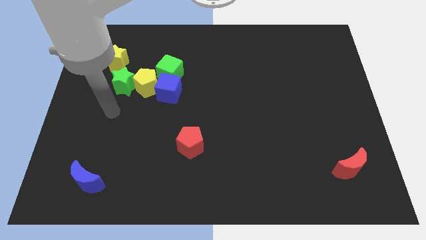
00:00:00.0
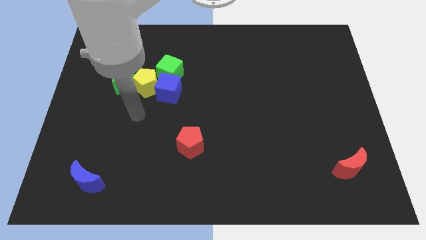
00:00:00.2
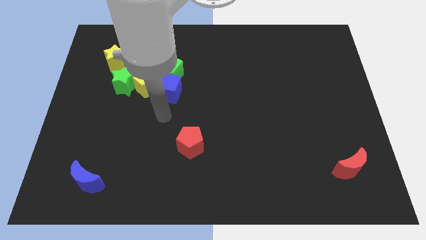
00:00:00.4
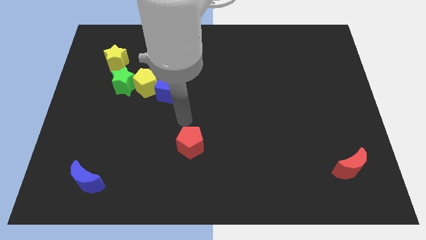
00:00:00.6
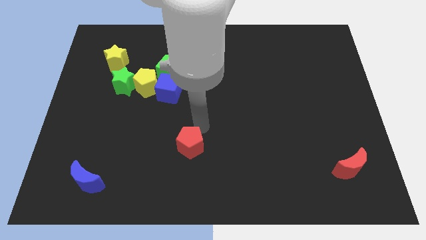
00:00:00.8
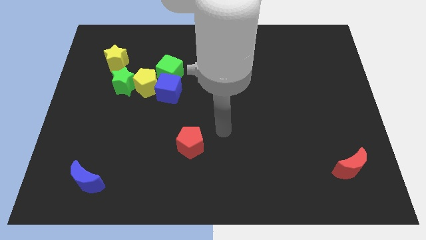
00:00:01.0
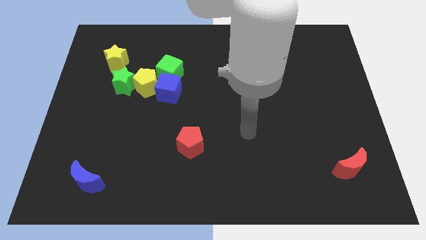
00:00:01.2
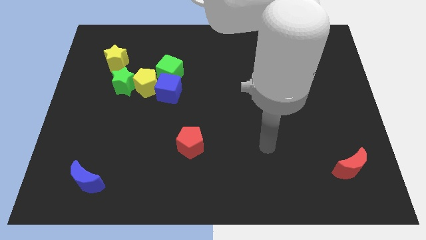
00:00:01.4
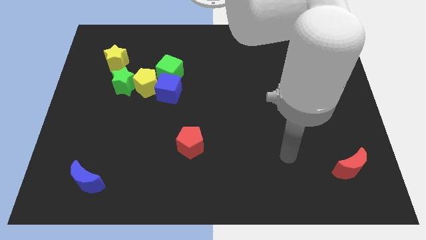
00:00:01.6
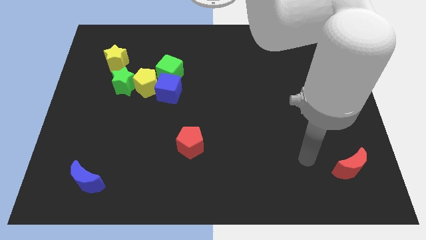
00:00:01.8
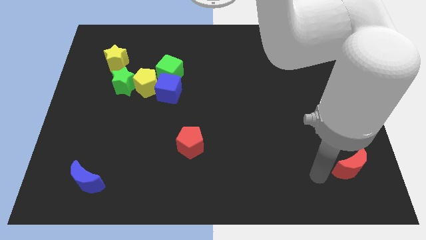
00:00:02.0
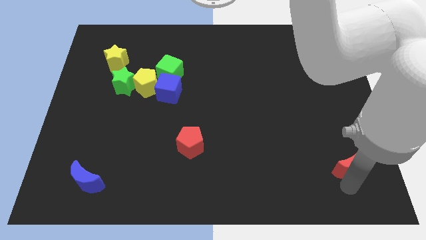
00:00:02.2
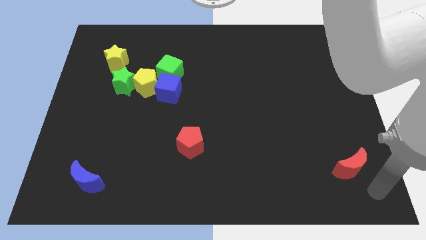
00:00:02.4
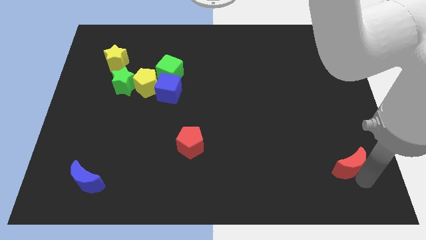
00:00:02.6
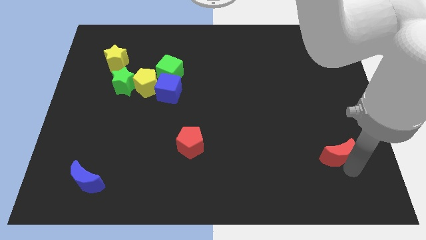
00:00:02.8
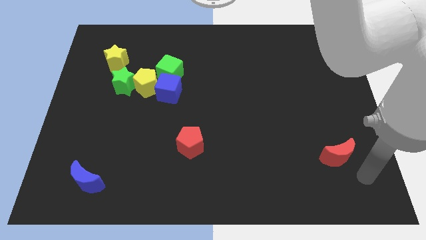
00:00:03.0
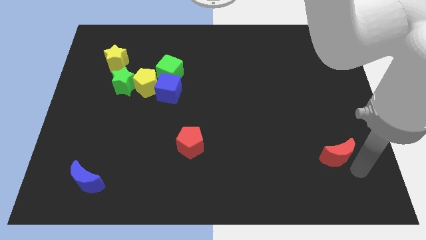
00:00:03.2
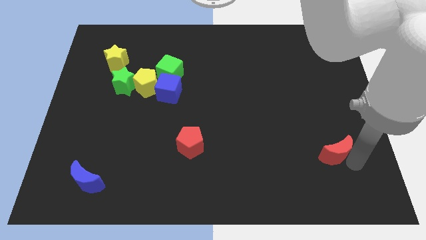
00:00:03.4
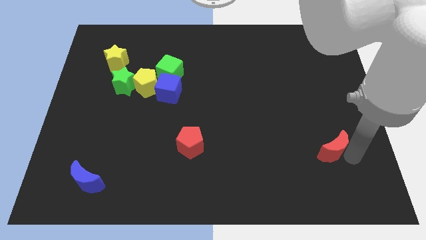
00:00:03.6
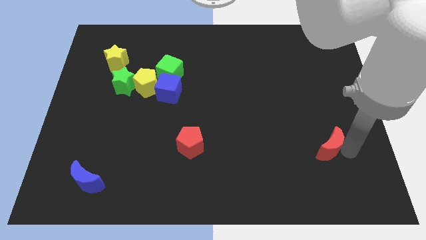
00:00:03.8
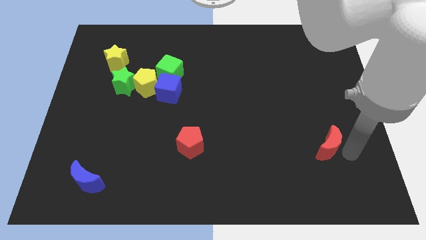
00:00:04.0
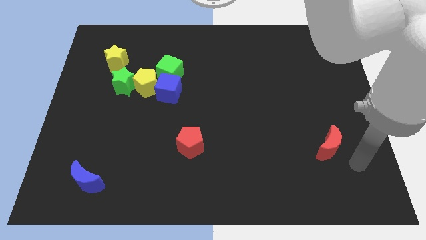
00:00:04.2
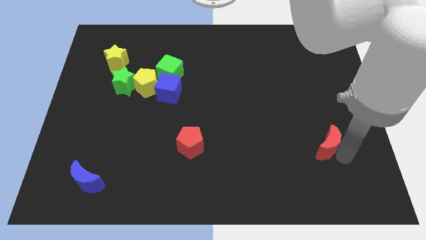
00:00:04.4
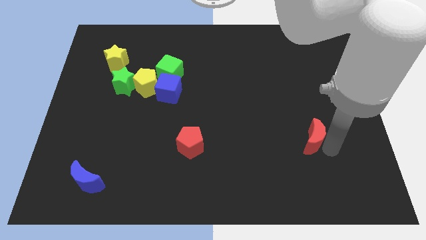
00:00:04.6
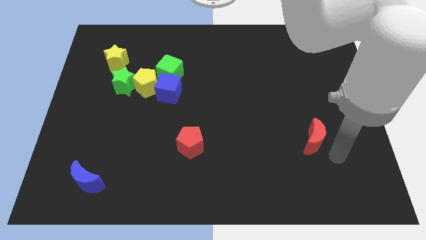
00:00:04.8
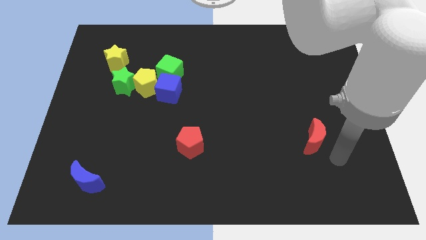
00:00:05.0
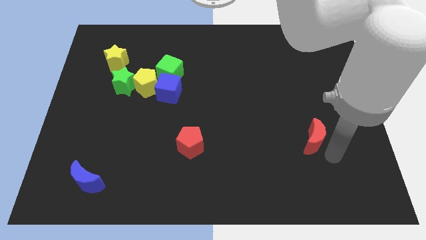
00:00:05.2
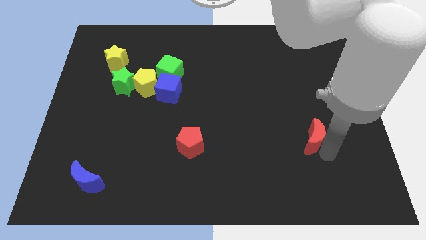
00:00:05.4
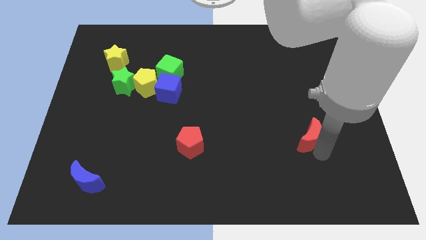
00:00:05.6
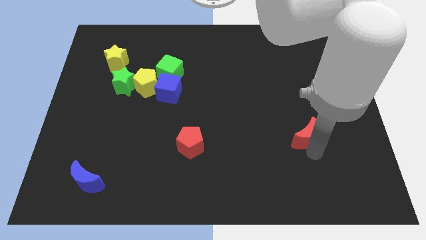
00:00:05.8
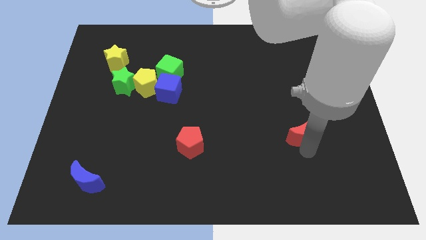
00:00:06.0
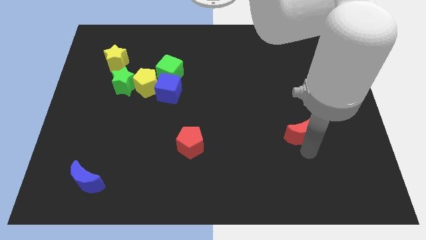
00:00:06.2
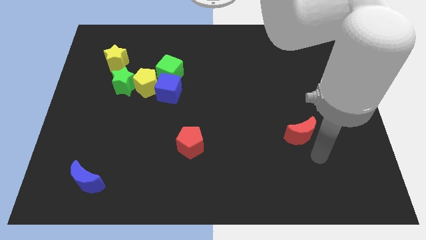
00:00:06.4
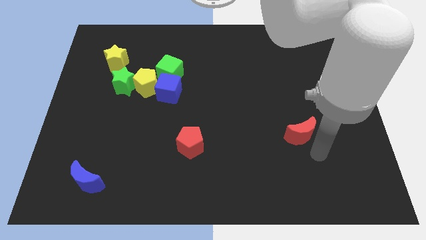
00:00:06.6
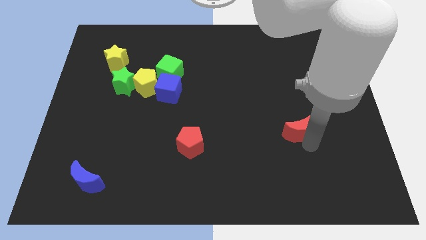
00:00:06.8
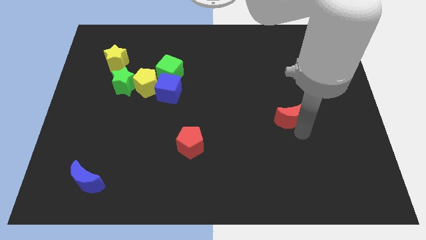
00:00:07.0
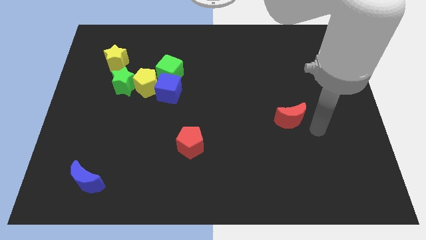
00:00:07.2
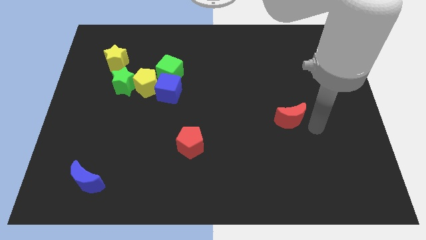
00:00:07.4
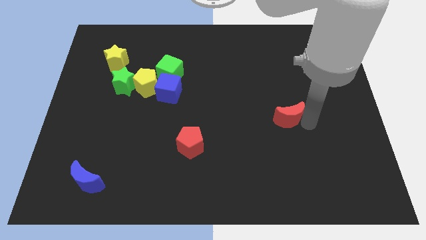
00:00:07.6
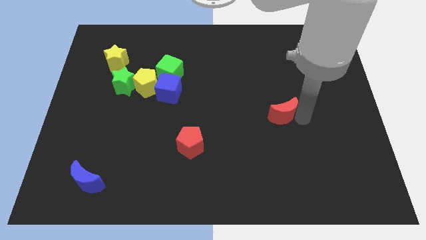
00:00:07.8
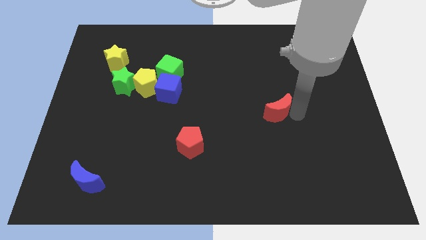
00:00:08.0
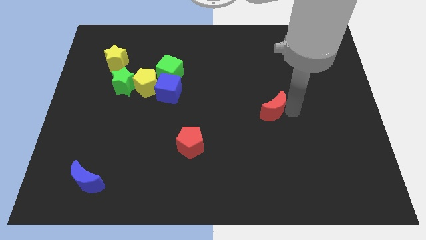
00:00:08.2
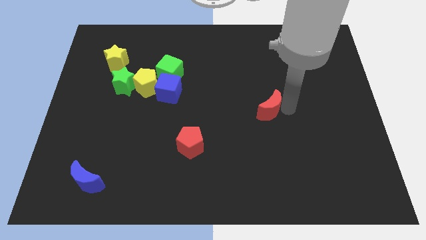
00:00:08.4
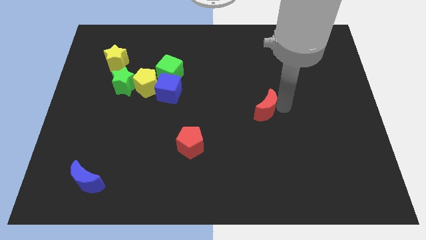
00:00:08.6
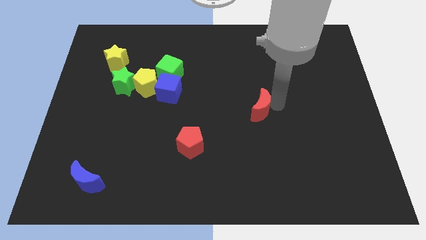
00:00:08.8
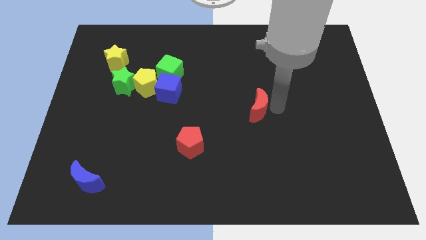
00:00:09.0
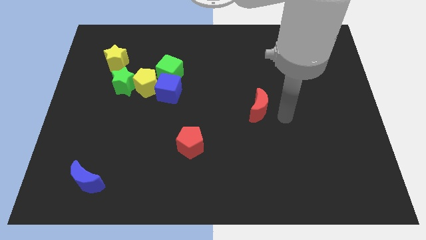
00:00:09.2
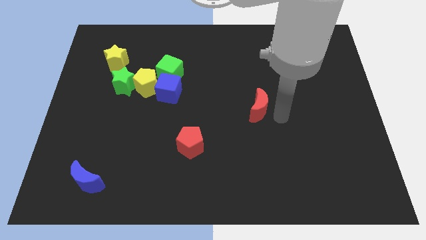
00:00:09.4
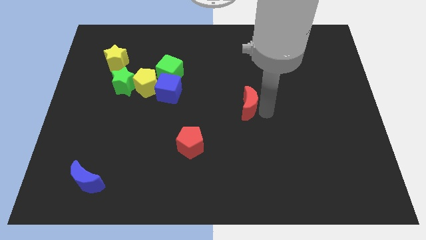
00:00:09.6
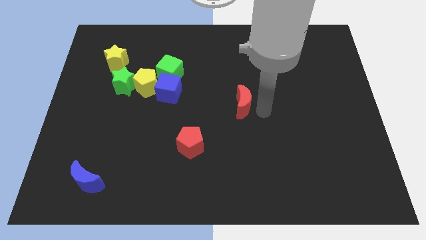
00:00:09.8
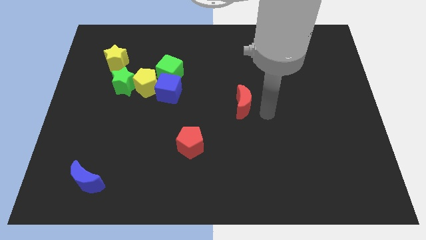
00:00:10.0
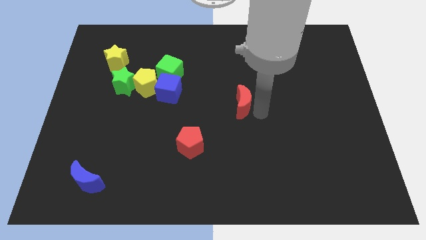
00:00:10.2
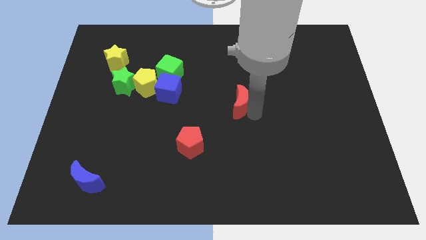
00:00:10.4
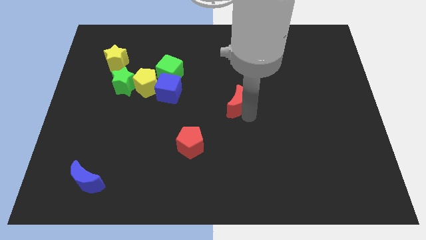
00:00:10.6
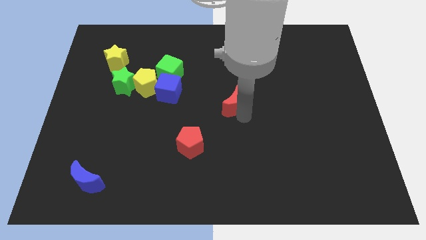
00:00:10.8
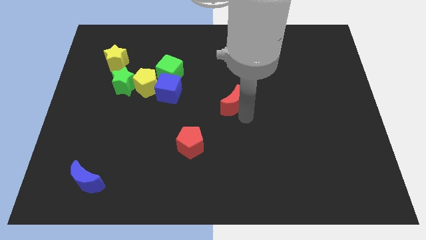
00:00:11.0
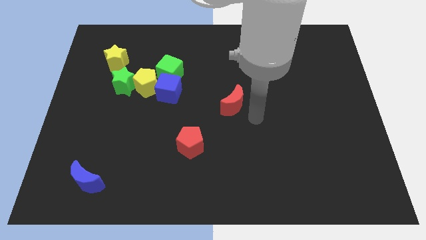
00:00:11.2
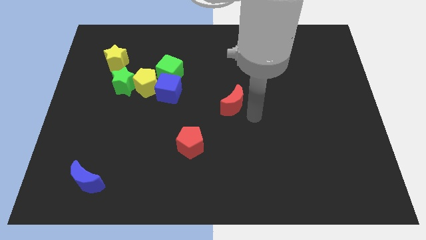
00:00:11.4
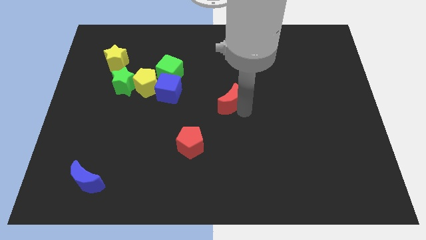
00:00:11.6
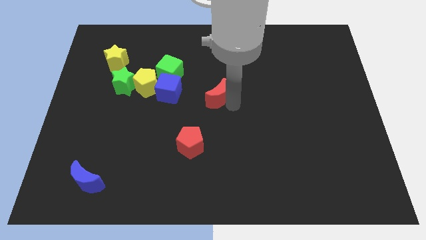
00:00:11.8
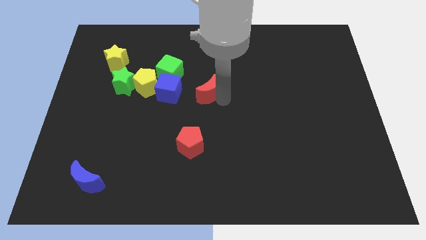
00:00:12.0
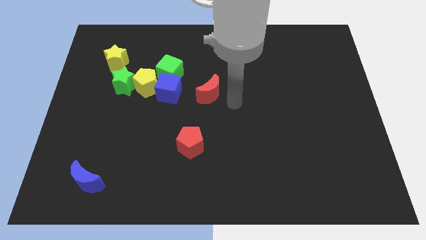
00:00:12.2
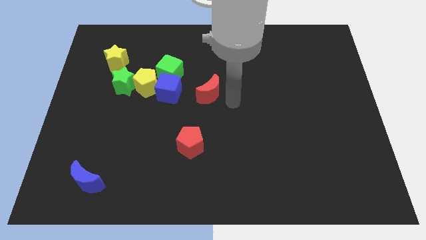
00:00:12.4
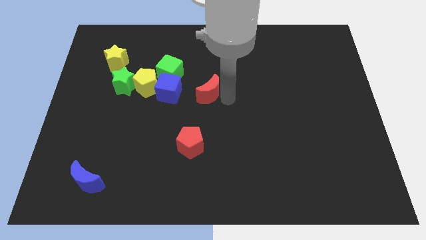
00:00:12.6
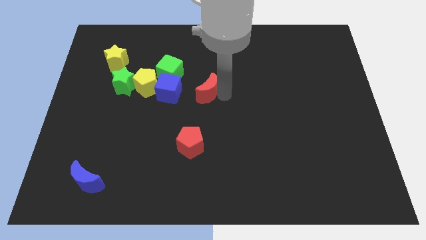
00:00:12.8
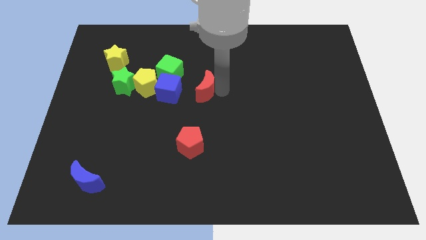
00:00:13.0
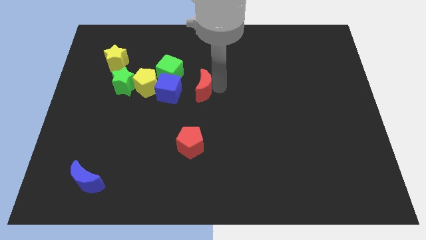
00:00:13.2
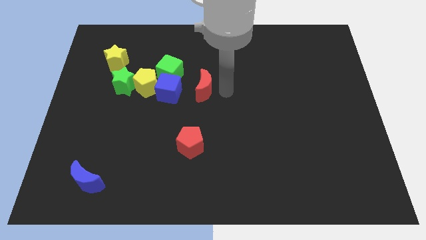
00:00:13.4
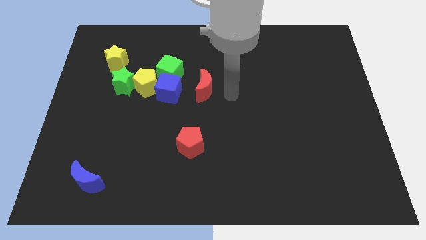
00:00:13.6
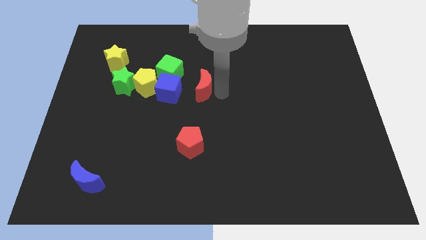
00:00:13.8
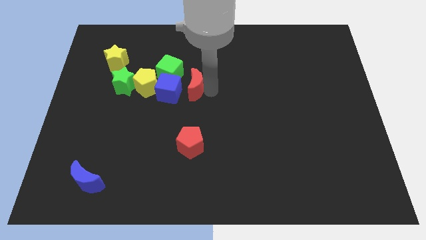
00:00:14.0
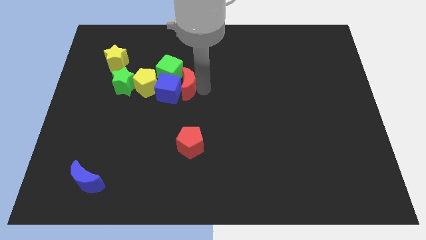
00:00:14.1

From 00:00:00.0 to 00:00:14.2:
move the red moon right of the green star
